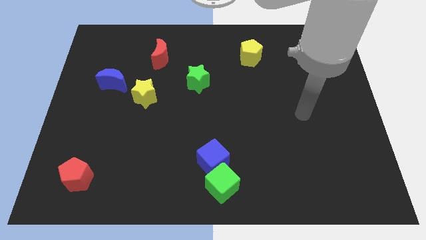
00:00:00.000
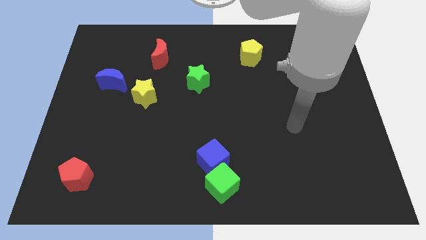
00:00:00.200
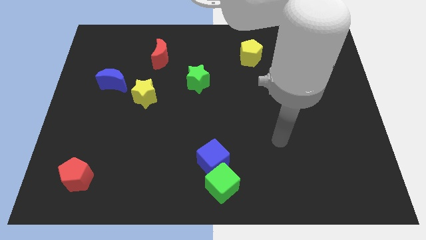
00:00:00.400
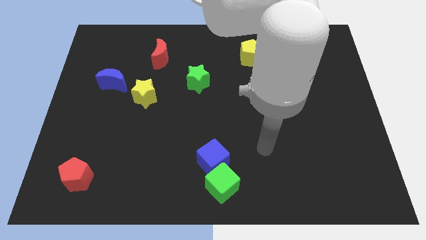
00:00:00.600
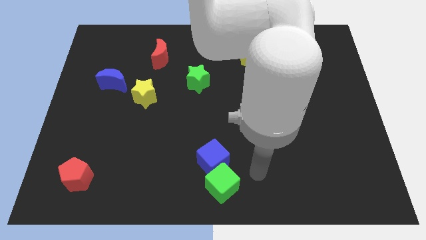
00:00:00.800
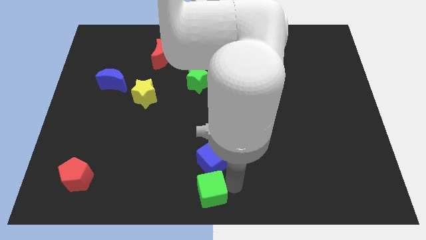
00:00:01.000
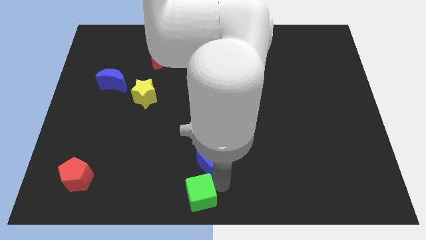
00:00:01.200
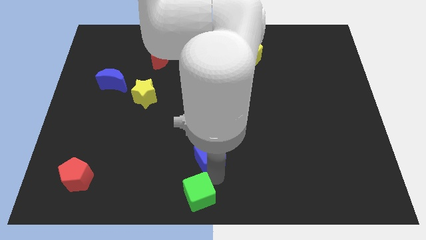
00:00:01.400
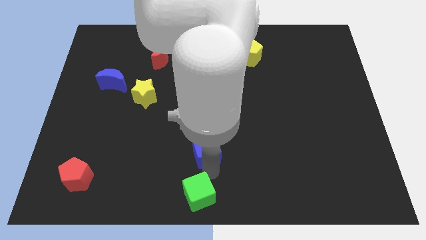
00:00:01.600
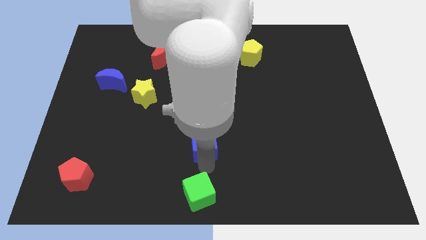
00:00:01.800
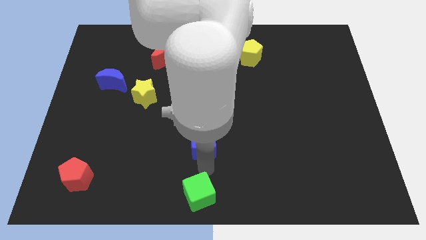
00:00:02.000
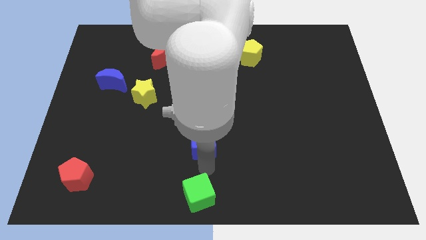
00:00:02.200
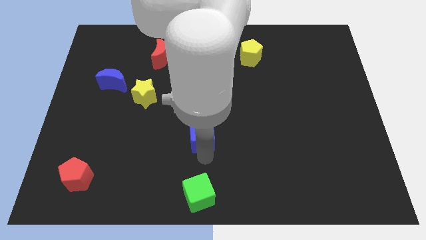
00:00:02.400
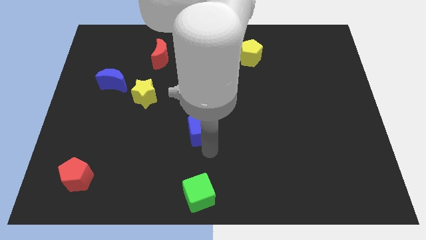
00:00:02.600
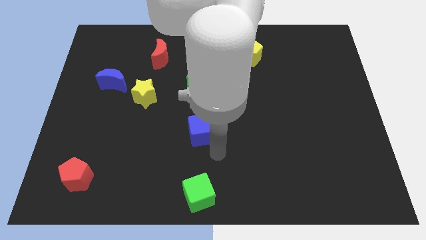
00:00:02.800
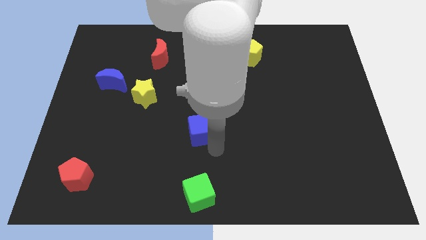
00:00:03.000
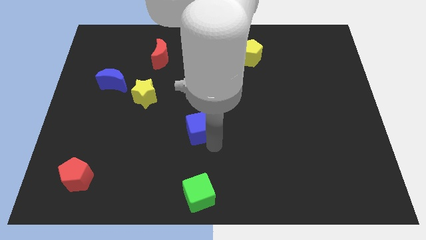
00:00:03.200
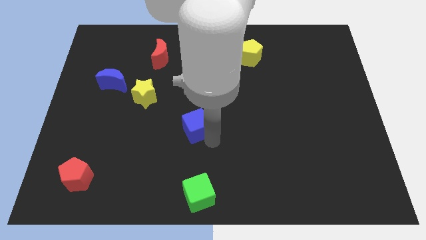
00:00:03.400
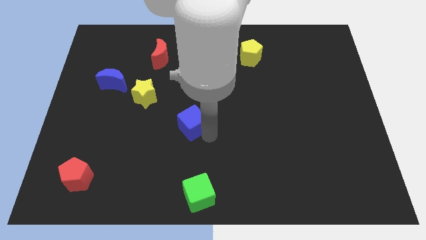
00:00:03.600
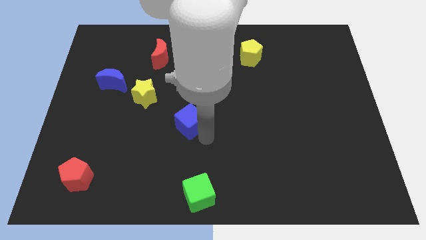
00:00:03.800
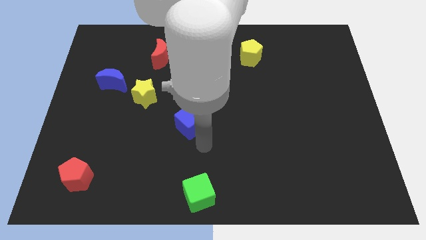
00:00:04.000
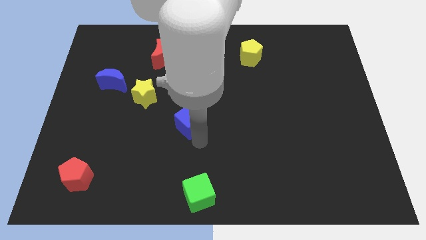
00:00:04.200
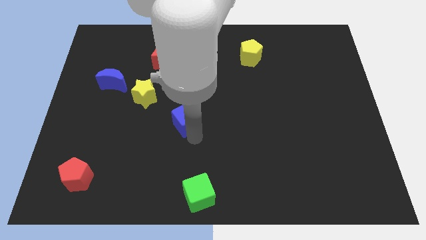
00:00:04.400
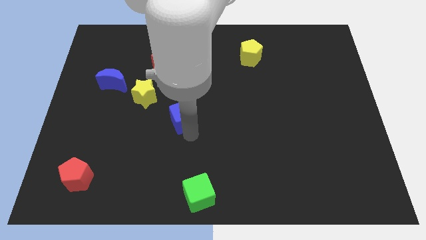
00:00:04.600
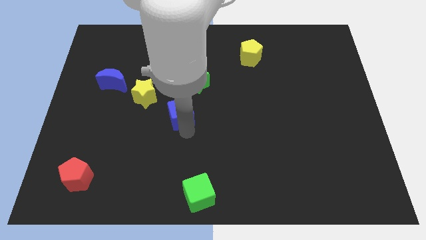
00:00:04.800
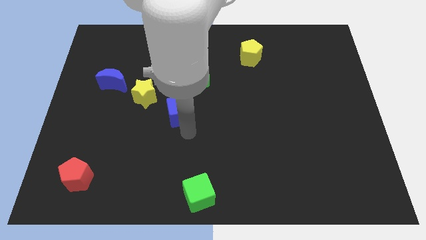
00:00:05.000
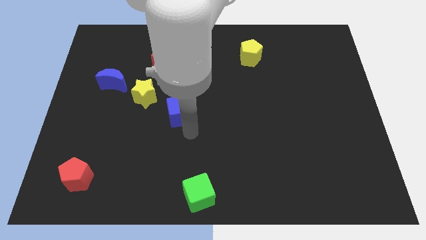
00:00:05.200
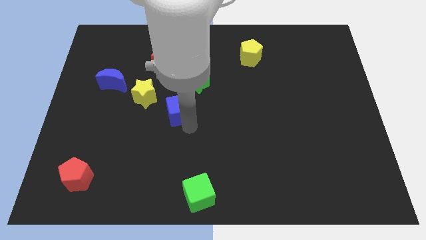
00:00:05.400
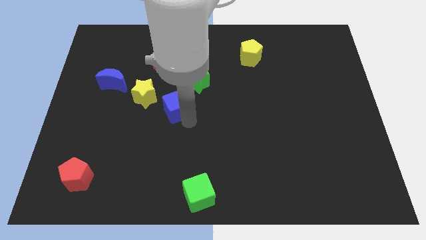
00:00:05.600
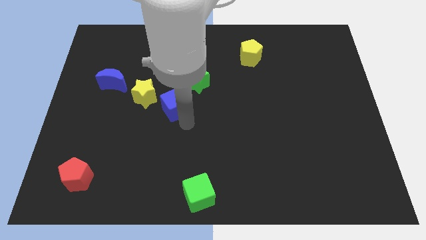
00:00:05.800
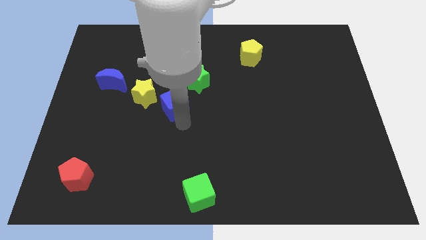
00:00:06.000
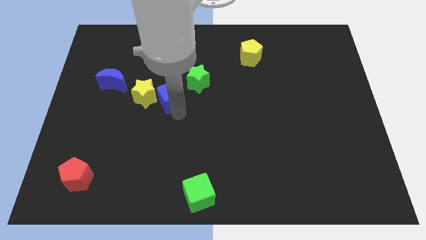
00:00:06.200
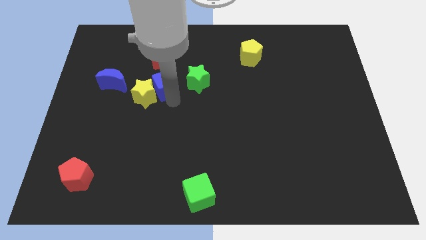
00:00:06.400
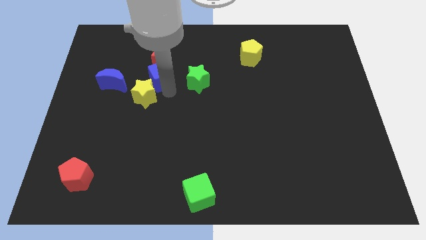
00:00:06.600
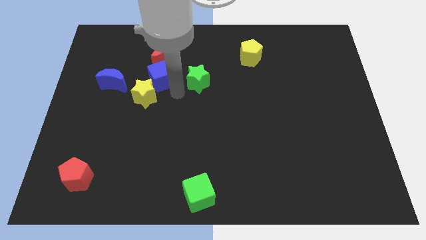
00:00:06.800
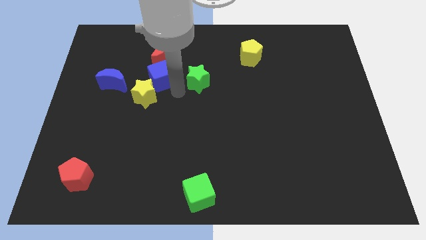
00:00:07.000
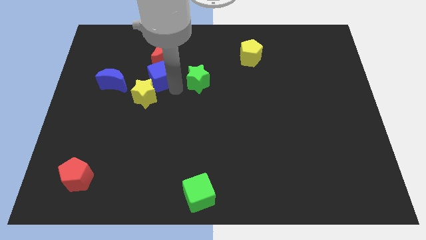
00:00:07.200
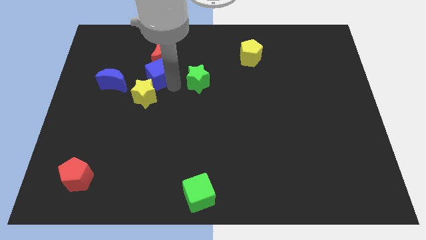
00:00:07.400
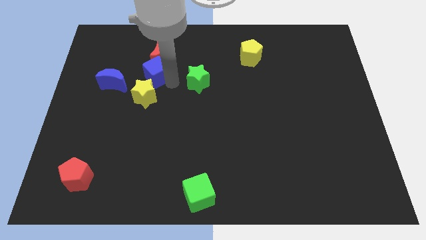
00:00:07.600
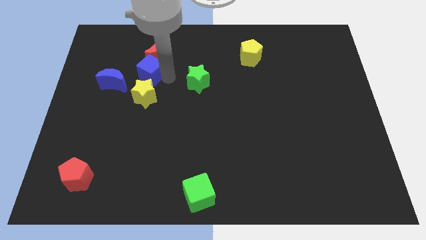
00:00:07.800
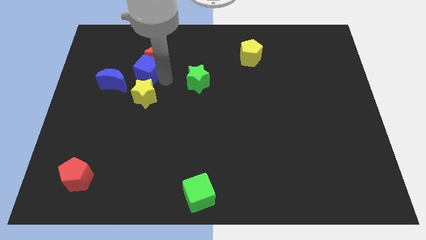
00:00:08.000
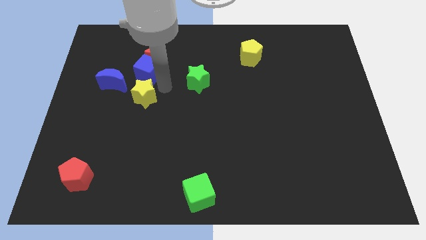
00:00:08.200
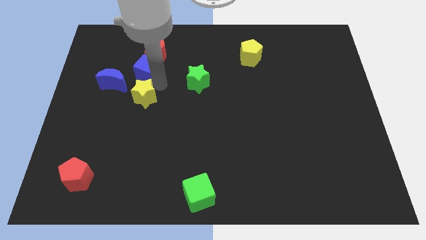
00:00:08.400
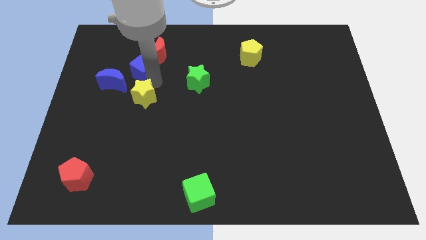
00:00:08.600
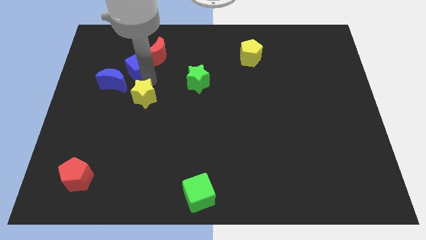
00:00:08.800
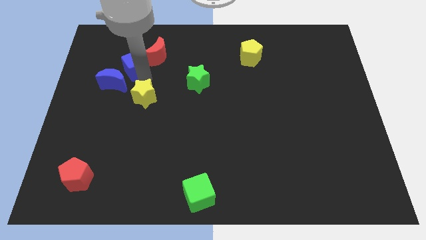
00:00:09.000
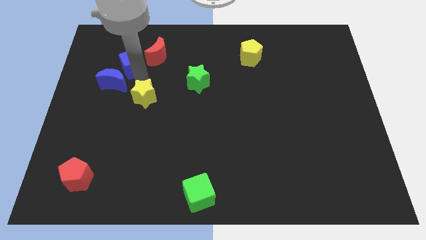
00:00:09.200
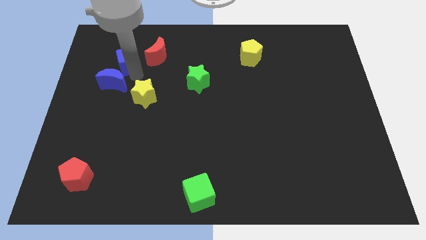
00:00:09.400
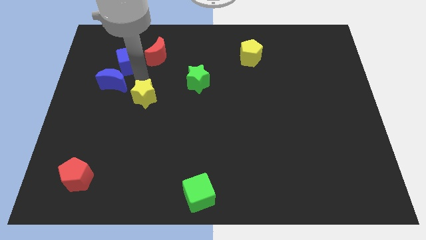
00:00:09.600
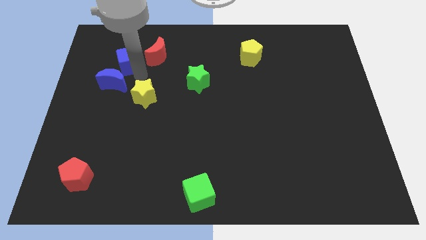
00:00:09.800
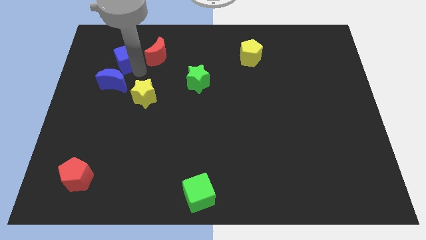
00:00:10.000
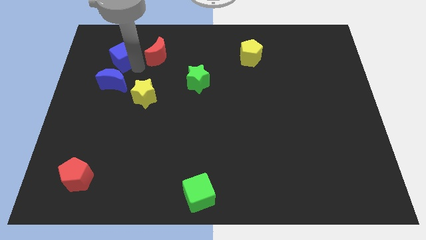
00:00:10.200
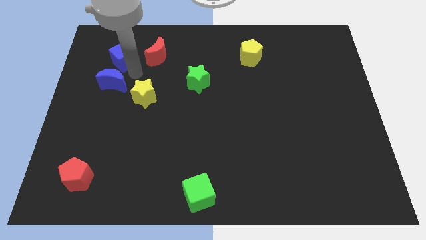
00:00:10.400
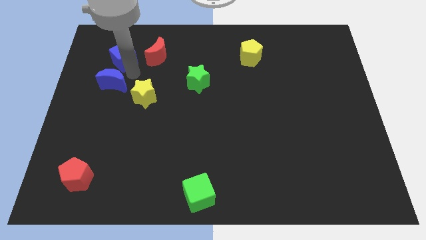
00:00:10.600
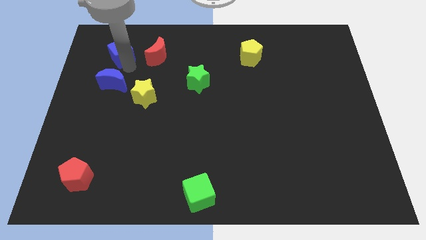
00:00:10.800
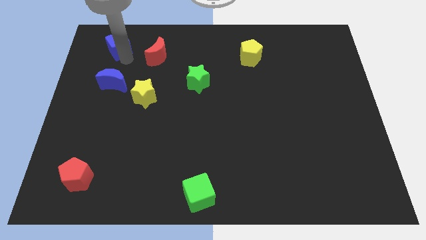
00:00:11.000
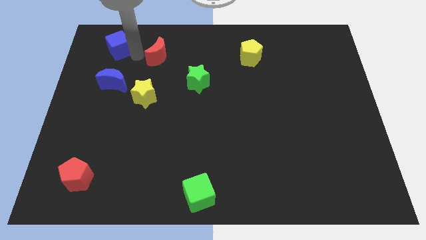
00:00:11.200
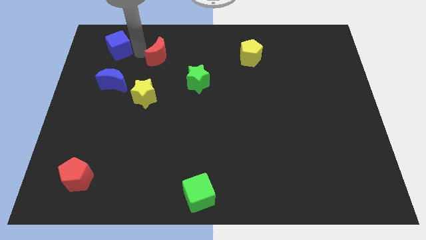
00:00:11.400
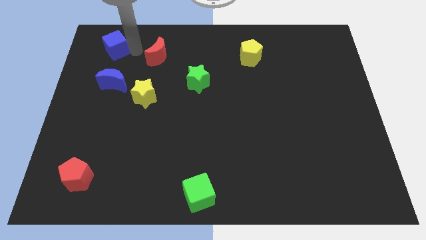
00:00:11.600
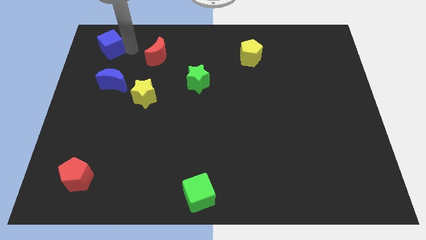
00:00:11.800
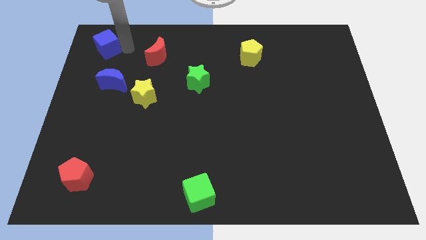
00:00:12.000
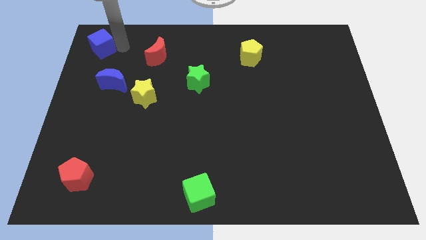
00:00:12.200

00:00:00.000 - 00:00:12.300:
push the blue cube to the upper left corner
